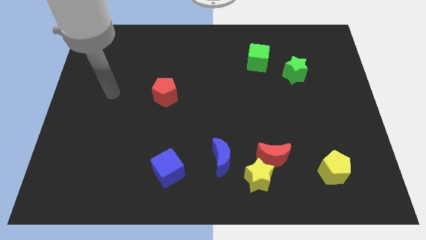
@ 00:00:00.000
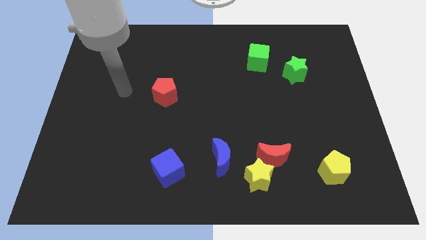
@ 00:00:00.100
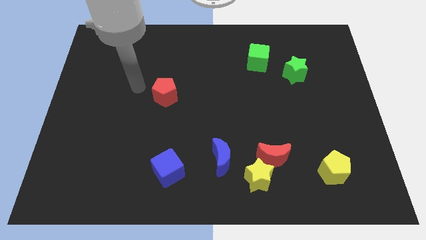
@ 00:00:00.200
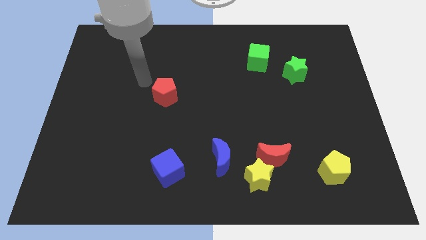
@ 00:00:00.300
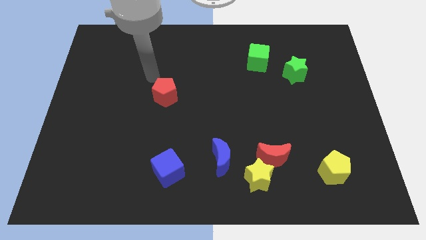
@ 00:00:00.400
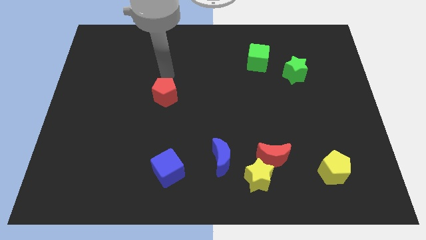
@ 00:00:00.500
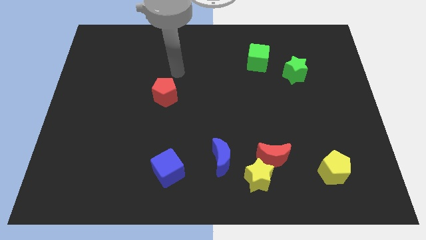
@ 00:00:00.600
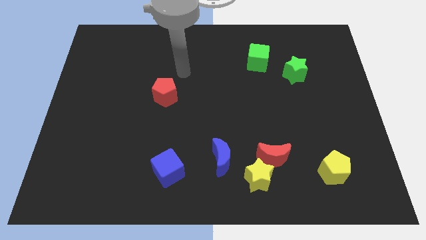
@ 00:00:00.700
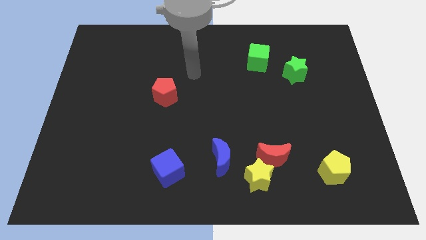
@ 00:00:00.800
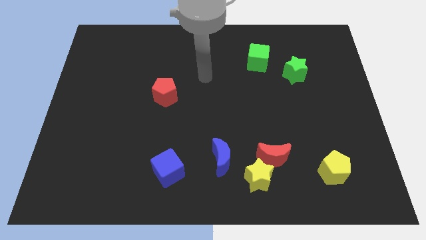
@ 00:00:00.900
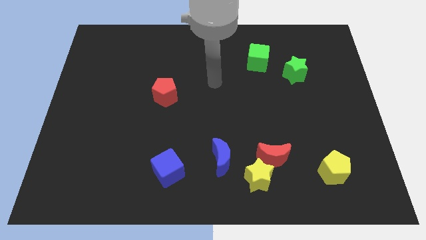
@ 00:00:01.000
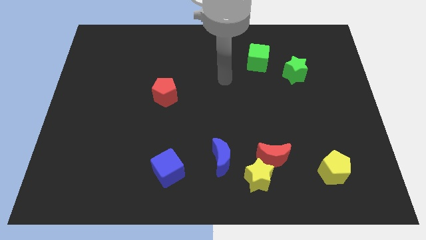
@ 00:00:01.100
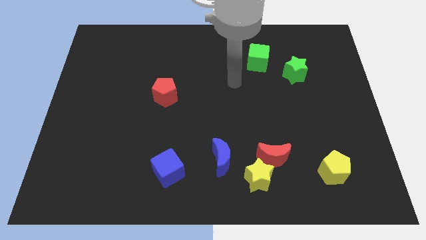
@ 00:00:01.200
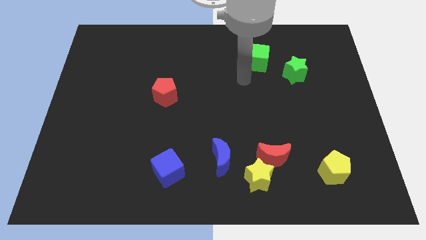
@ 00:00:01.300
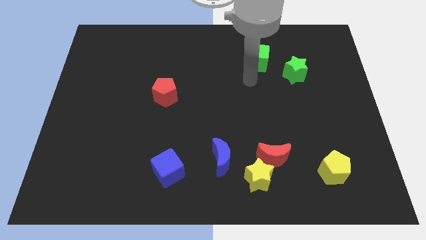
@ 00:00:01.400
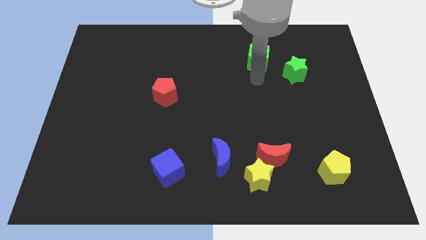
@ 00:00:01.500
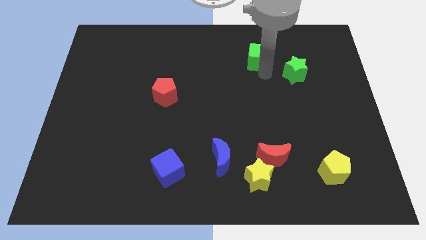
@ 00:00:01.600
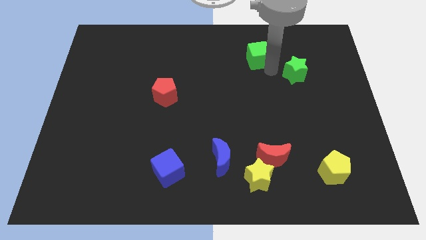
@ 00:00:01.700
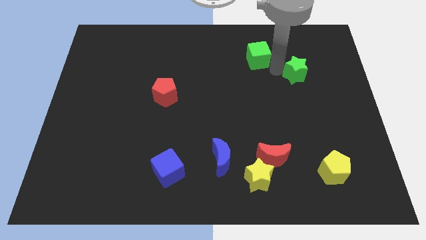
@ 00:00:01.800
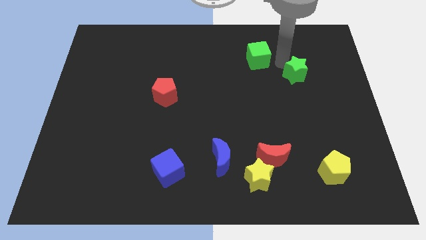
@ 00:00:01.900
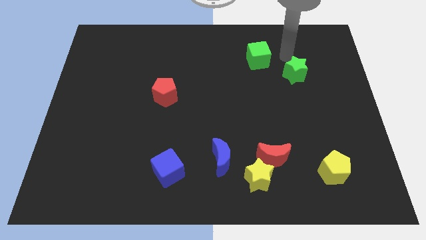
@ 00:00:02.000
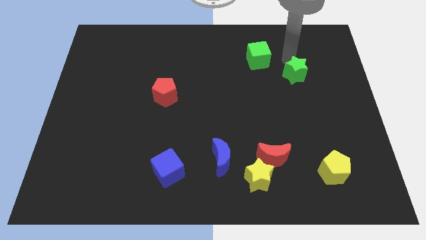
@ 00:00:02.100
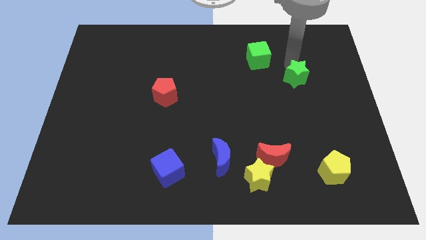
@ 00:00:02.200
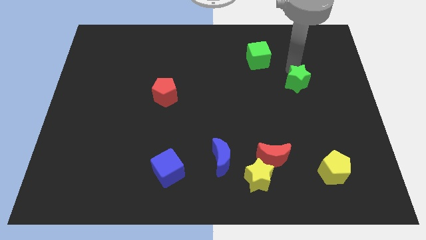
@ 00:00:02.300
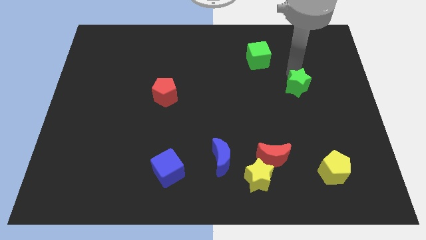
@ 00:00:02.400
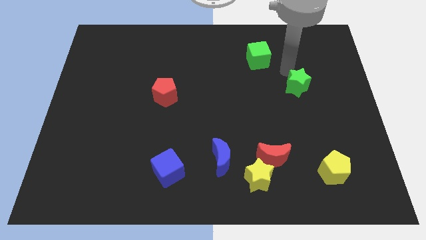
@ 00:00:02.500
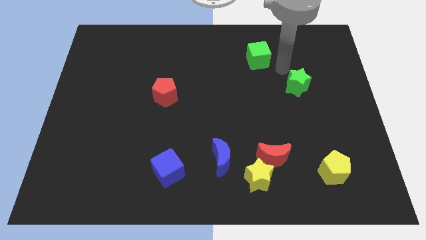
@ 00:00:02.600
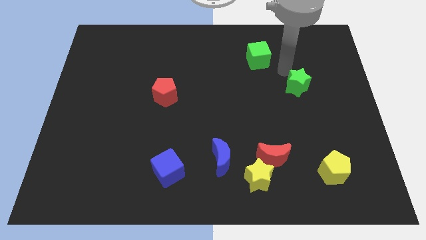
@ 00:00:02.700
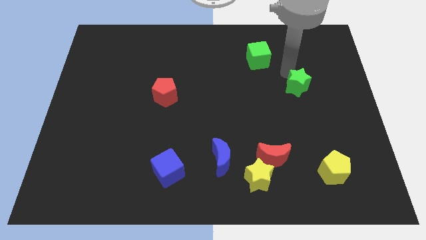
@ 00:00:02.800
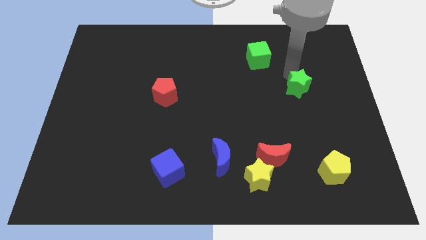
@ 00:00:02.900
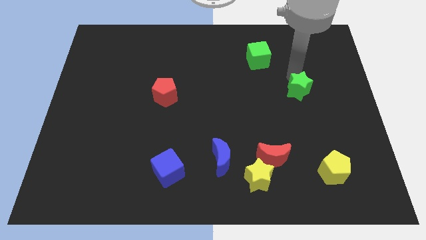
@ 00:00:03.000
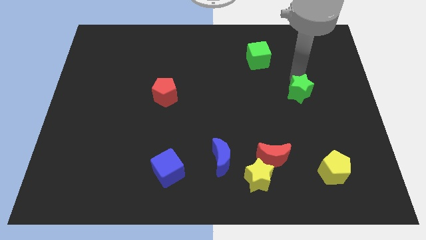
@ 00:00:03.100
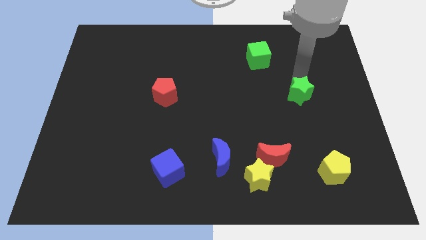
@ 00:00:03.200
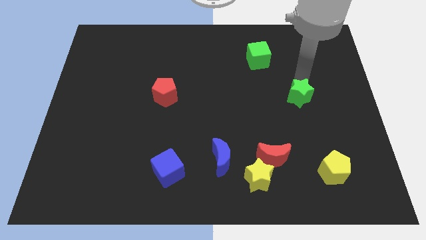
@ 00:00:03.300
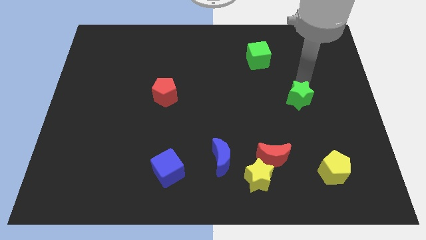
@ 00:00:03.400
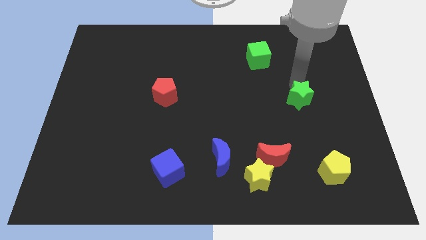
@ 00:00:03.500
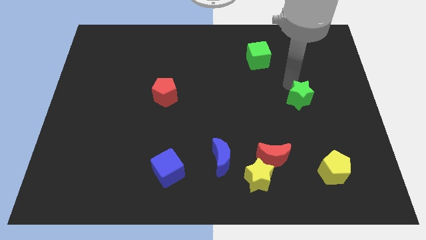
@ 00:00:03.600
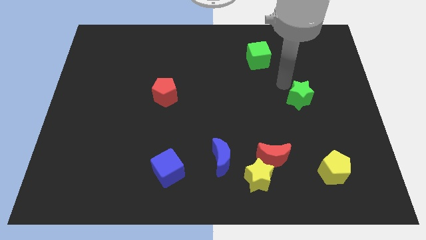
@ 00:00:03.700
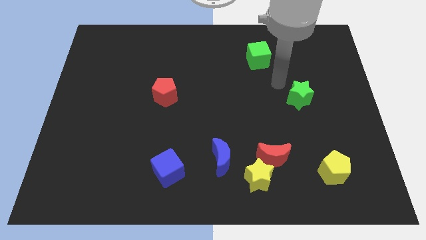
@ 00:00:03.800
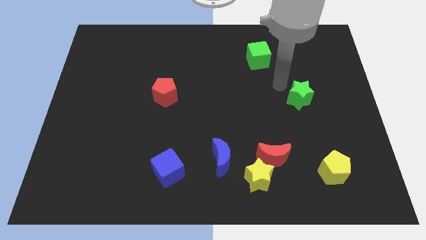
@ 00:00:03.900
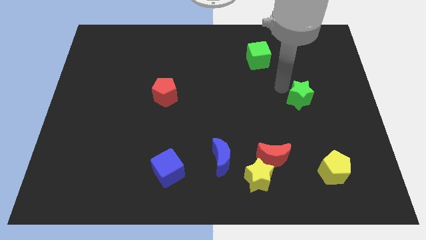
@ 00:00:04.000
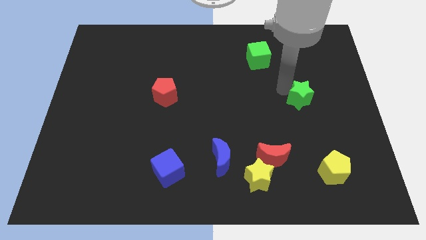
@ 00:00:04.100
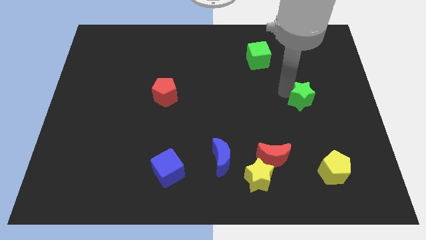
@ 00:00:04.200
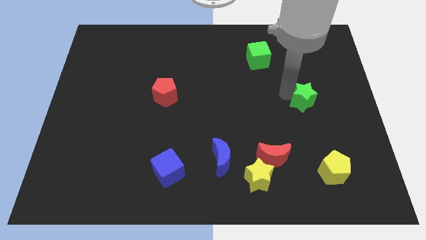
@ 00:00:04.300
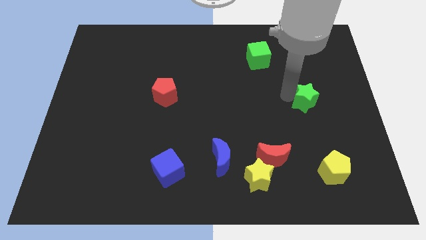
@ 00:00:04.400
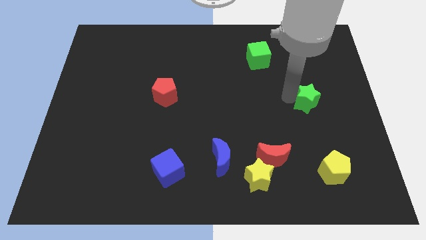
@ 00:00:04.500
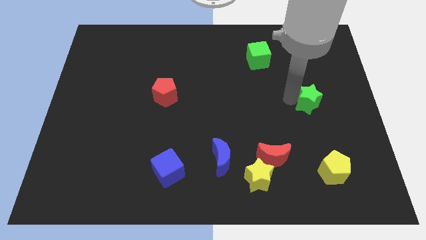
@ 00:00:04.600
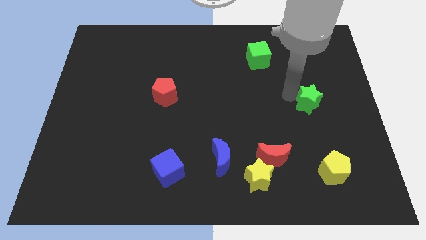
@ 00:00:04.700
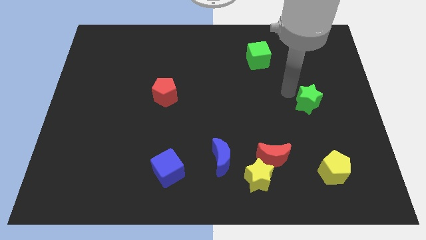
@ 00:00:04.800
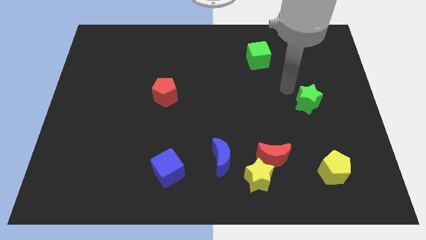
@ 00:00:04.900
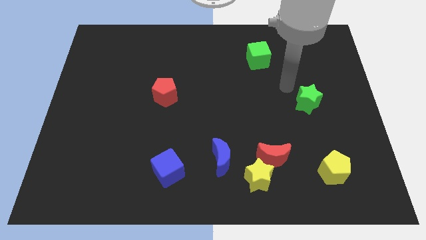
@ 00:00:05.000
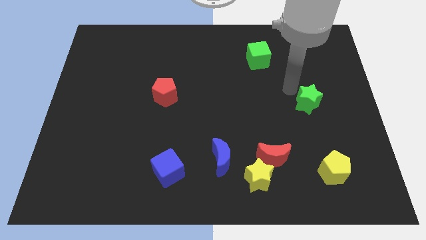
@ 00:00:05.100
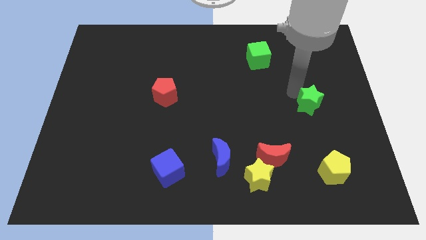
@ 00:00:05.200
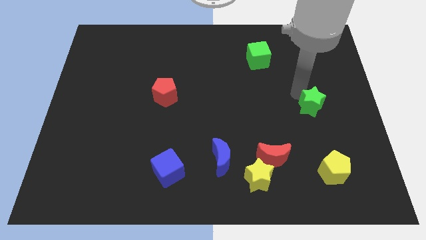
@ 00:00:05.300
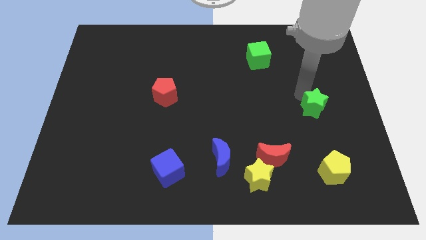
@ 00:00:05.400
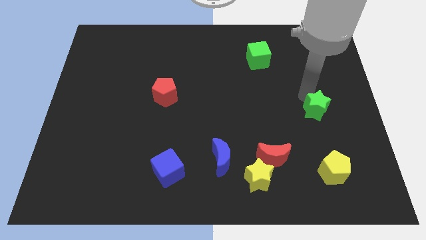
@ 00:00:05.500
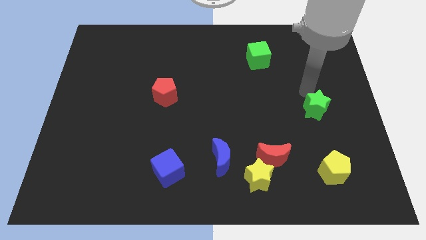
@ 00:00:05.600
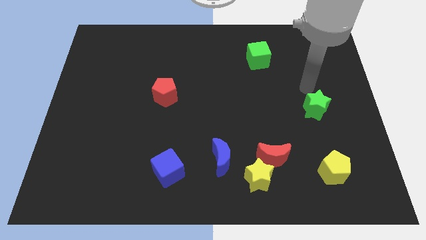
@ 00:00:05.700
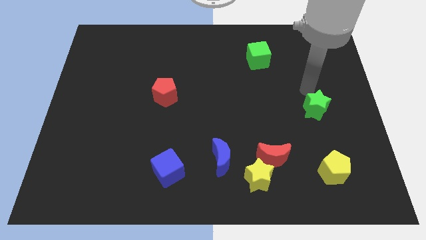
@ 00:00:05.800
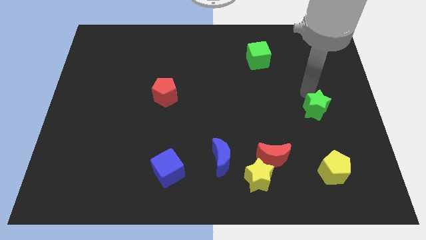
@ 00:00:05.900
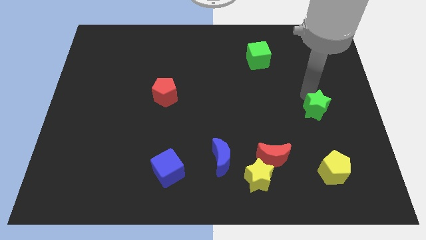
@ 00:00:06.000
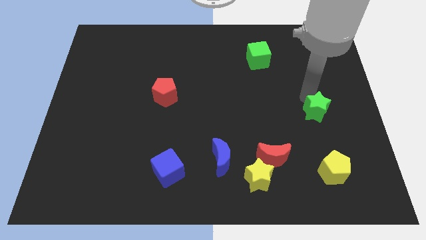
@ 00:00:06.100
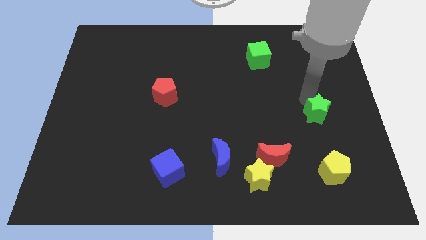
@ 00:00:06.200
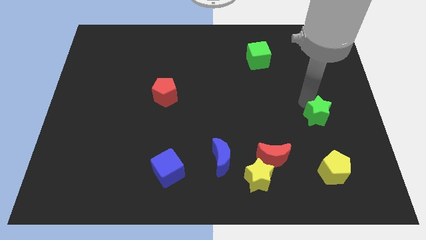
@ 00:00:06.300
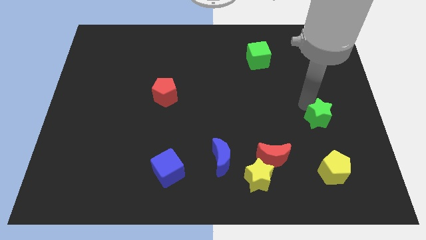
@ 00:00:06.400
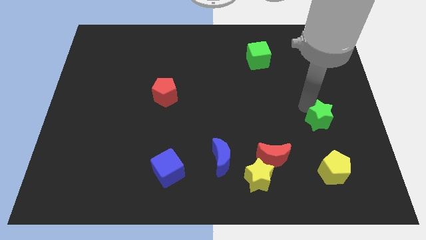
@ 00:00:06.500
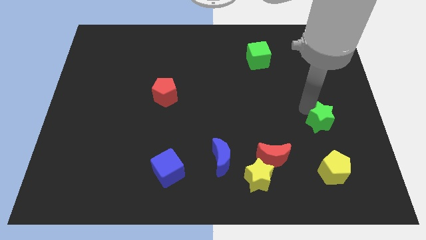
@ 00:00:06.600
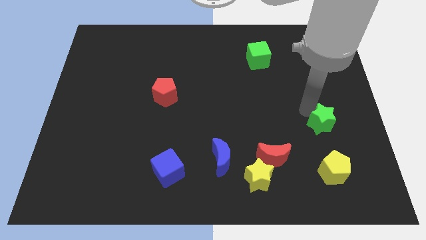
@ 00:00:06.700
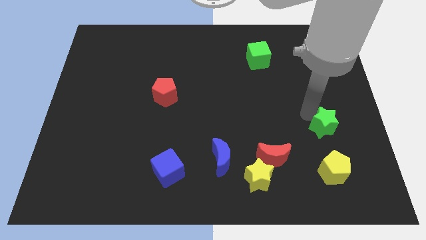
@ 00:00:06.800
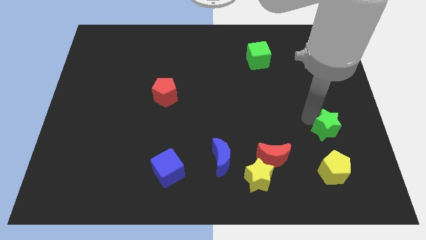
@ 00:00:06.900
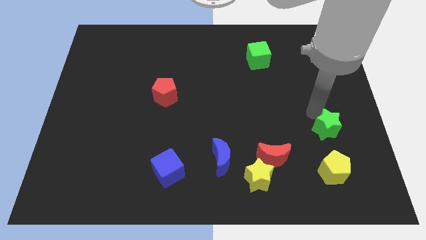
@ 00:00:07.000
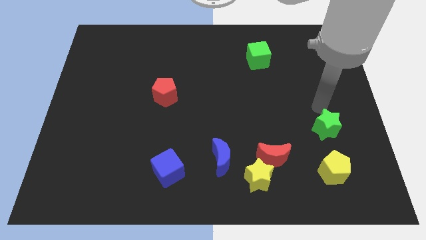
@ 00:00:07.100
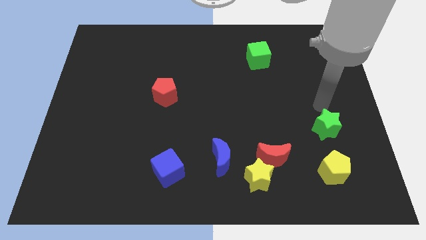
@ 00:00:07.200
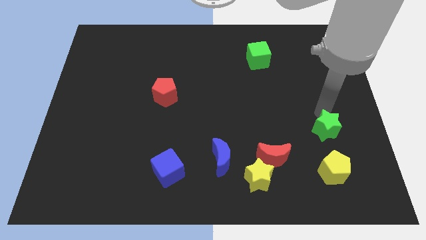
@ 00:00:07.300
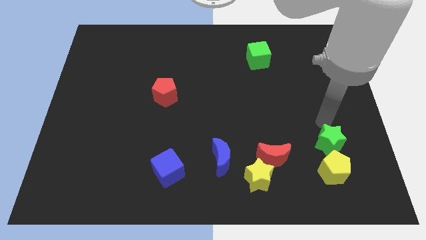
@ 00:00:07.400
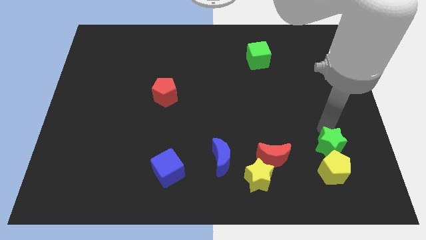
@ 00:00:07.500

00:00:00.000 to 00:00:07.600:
push the green star to the yellow pentagon
